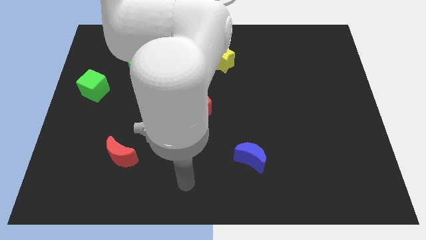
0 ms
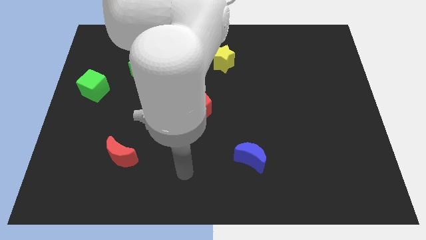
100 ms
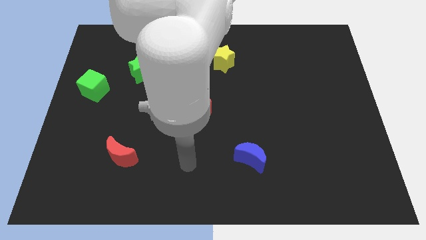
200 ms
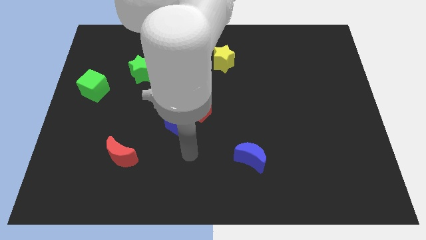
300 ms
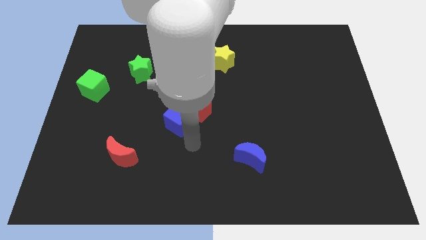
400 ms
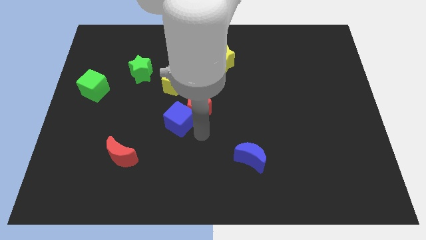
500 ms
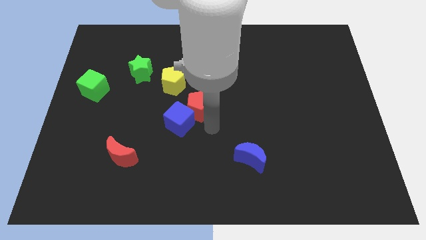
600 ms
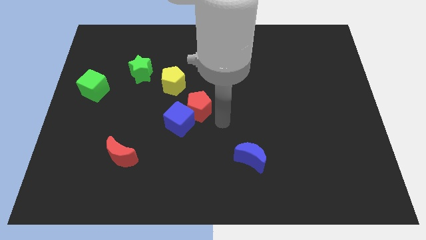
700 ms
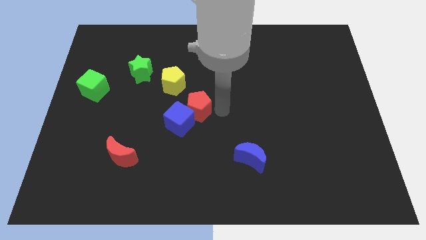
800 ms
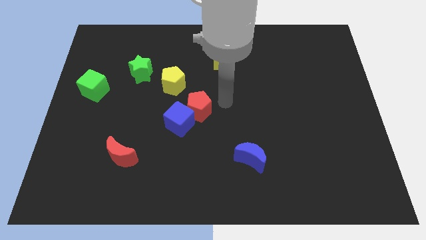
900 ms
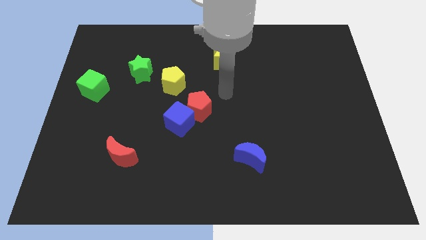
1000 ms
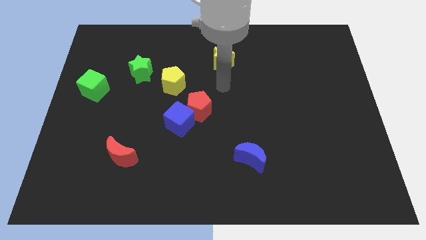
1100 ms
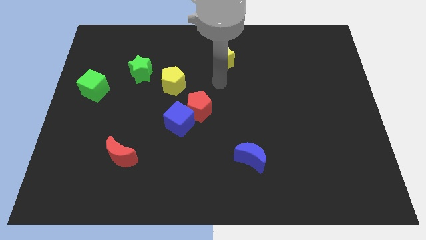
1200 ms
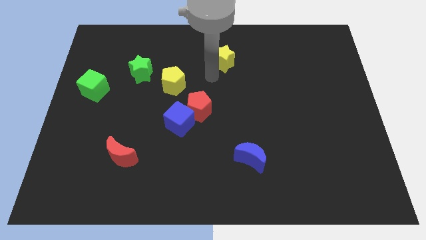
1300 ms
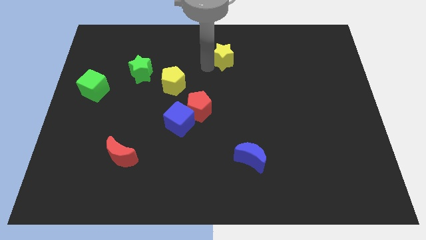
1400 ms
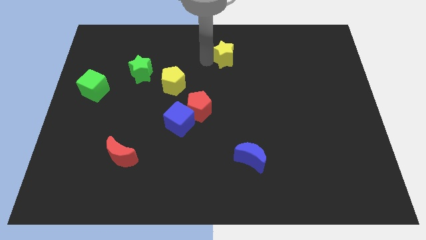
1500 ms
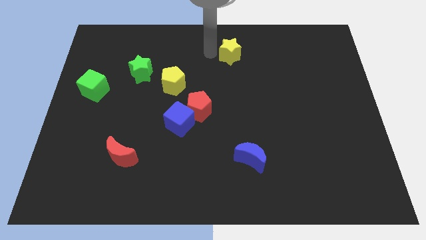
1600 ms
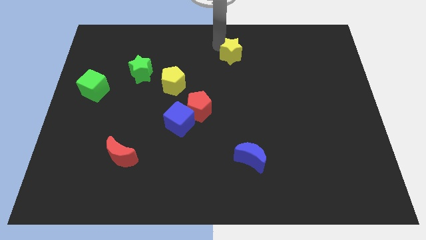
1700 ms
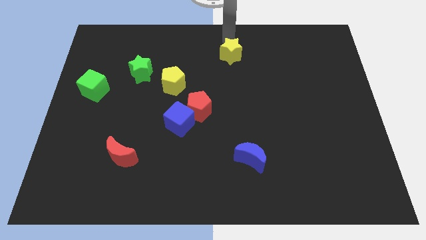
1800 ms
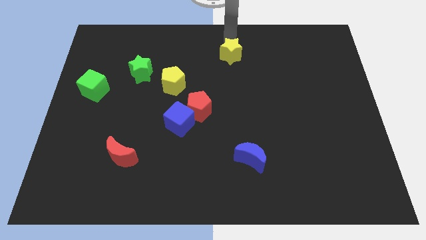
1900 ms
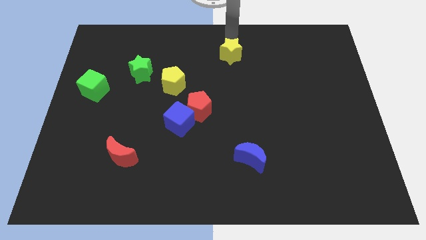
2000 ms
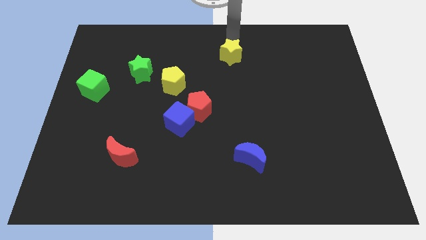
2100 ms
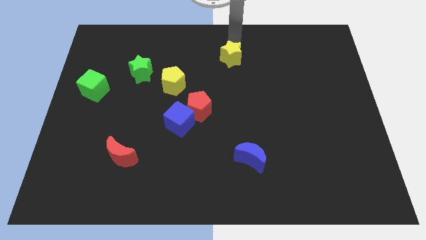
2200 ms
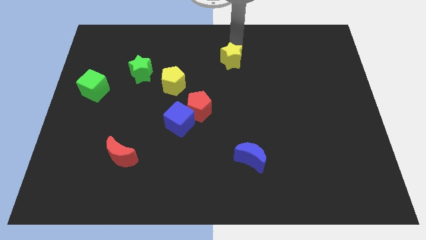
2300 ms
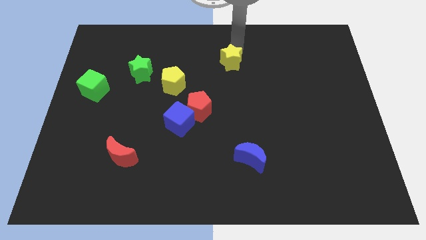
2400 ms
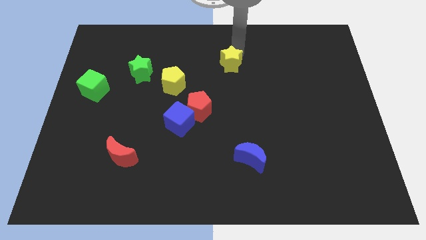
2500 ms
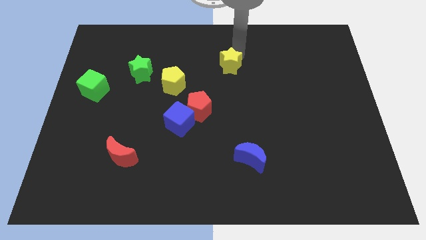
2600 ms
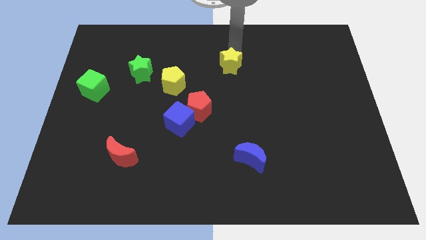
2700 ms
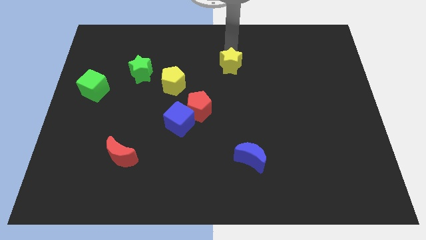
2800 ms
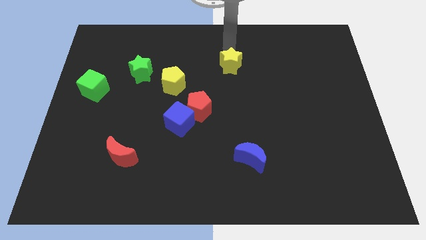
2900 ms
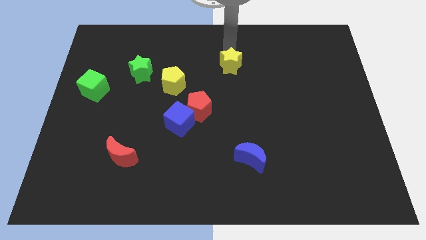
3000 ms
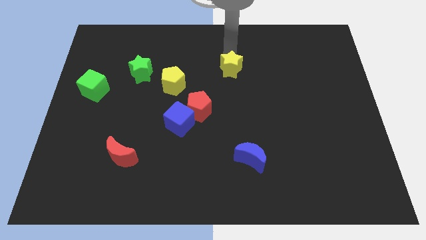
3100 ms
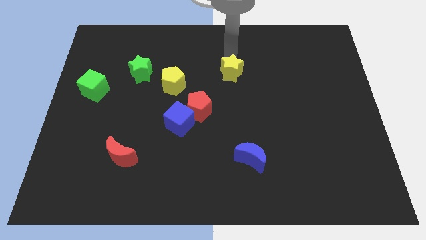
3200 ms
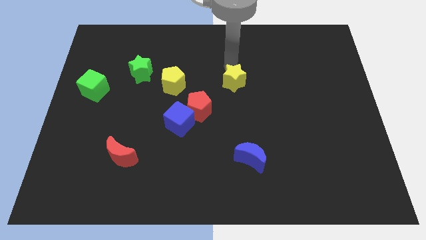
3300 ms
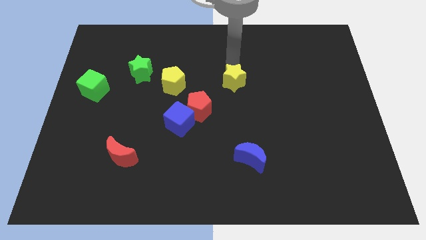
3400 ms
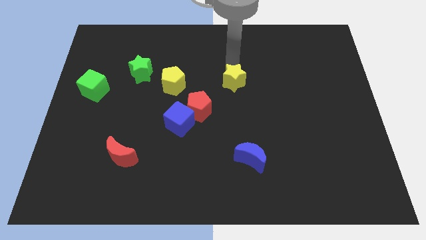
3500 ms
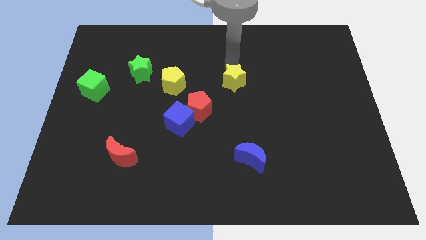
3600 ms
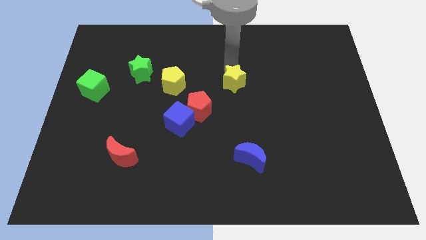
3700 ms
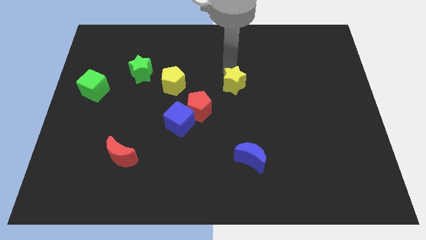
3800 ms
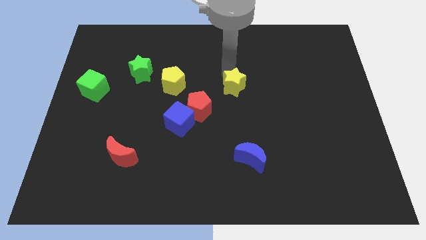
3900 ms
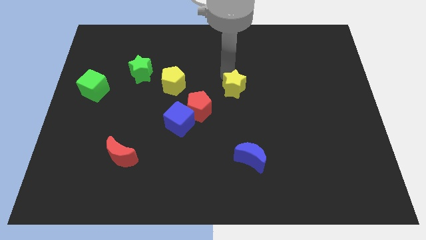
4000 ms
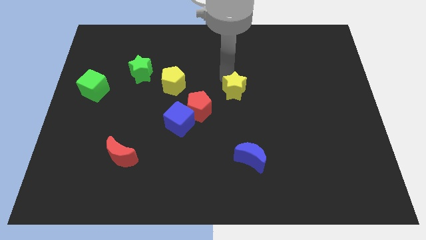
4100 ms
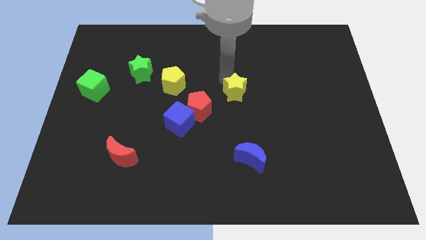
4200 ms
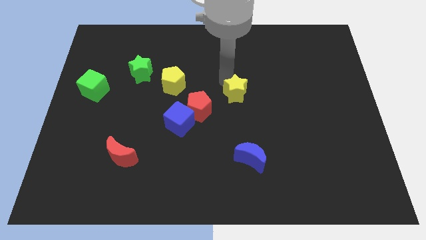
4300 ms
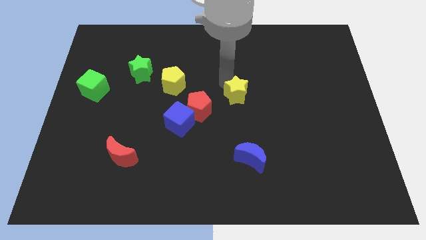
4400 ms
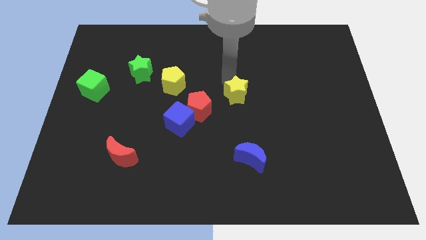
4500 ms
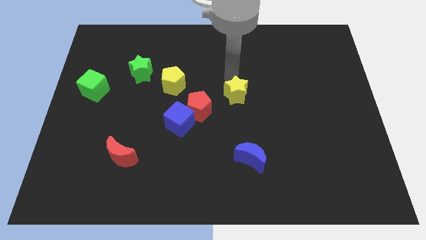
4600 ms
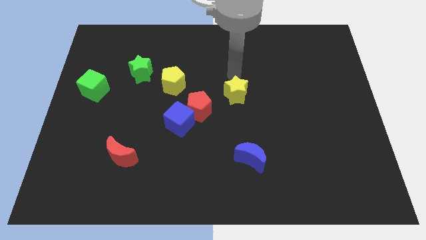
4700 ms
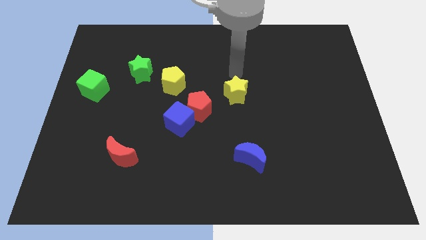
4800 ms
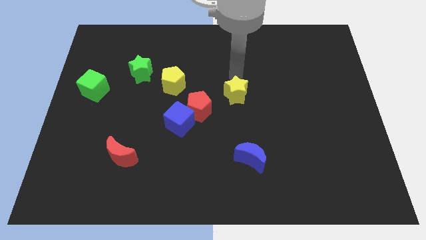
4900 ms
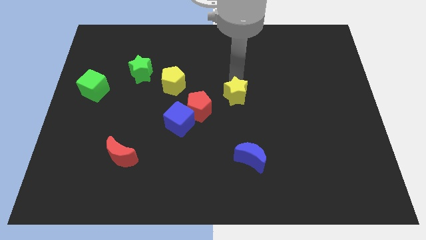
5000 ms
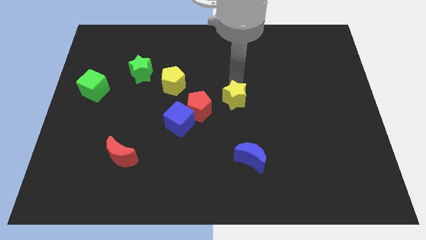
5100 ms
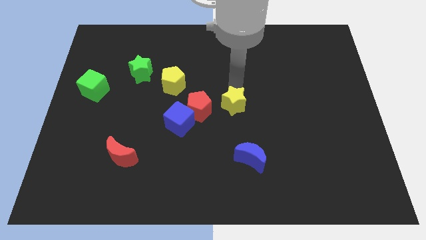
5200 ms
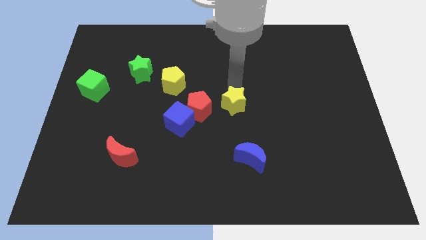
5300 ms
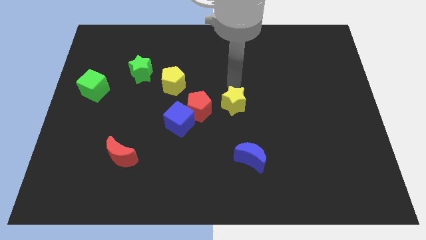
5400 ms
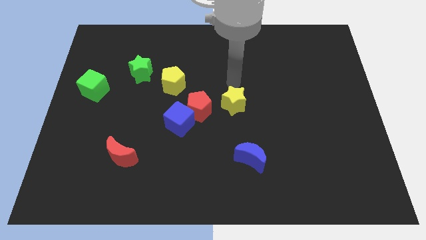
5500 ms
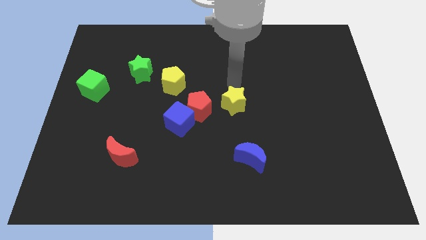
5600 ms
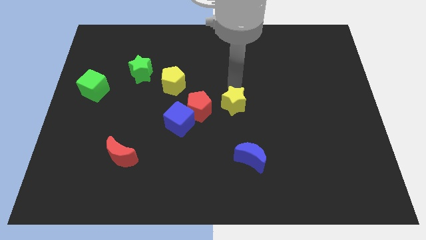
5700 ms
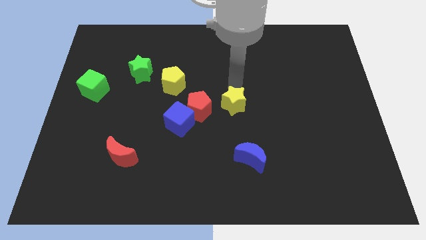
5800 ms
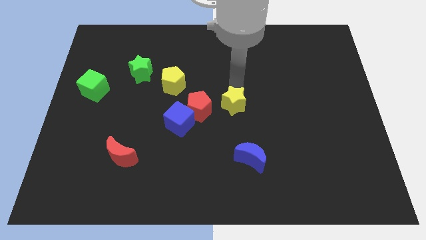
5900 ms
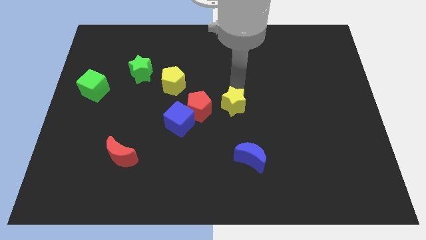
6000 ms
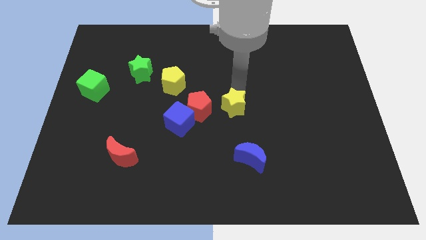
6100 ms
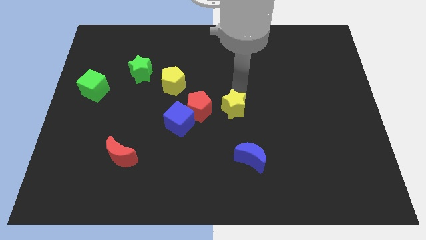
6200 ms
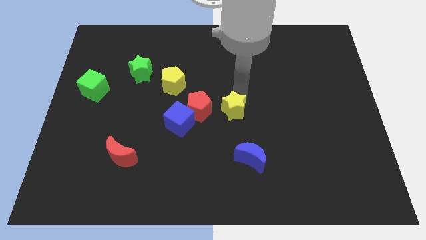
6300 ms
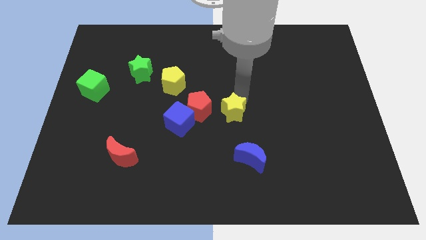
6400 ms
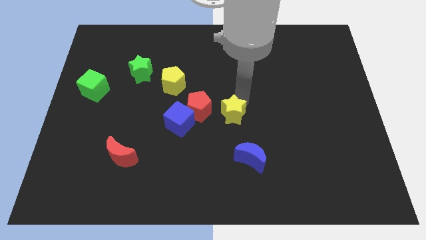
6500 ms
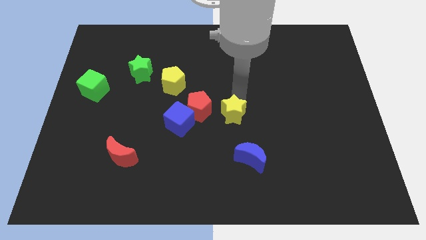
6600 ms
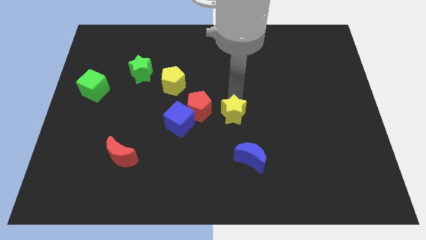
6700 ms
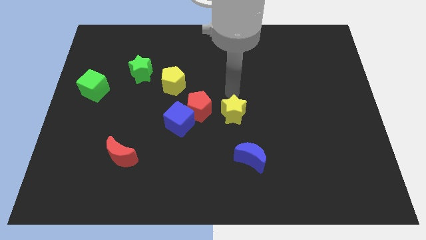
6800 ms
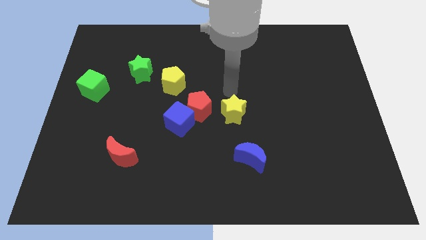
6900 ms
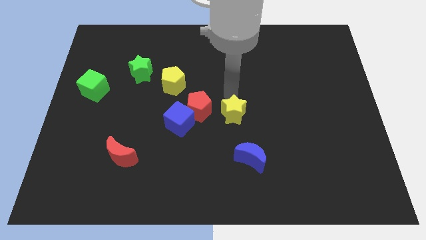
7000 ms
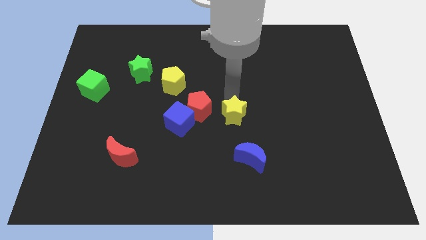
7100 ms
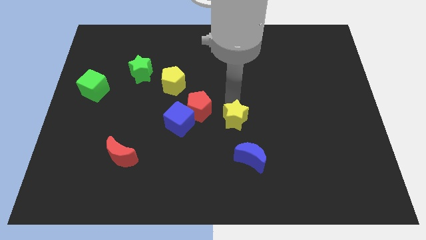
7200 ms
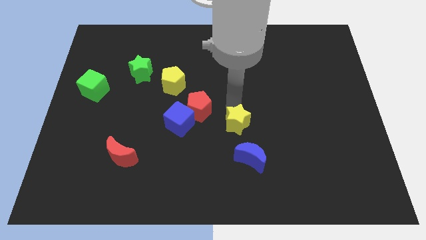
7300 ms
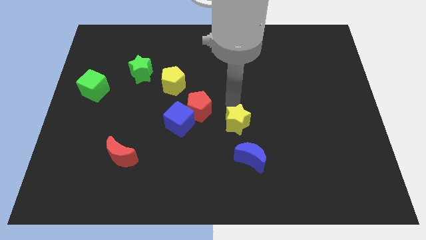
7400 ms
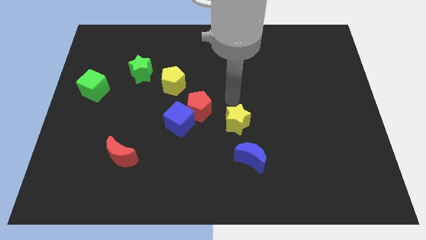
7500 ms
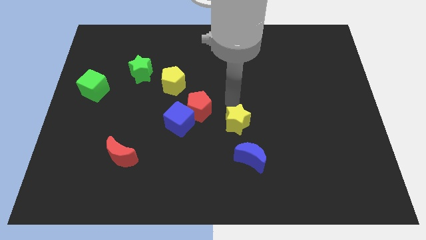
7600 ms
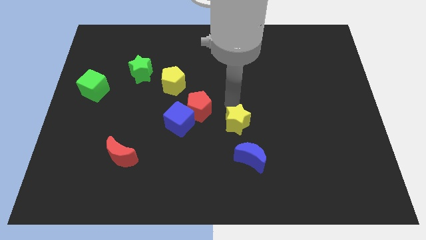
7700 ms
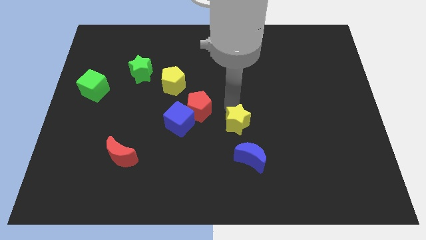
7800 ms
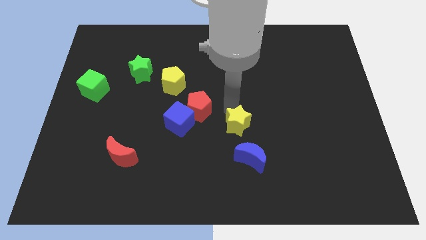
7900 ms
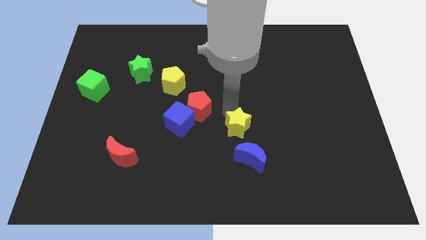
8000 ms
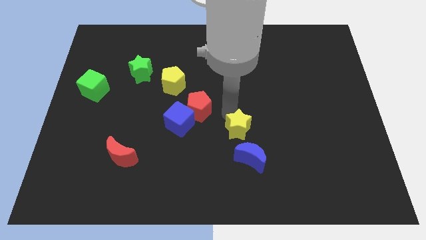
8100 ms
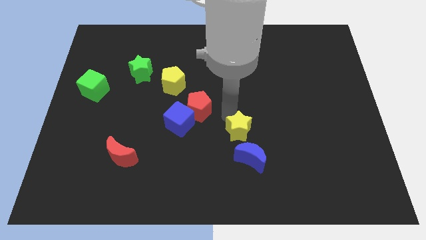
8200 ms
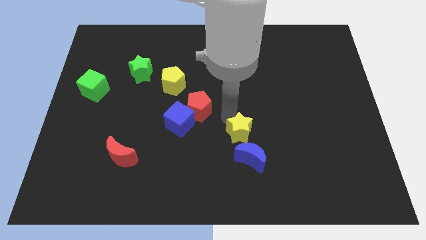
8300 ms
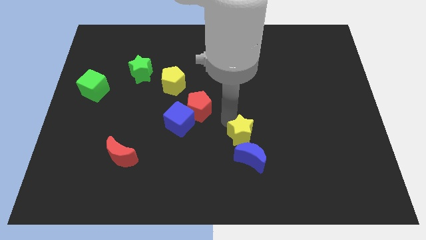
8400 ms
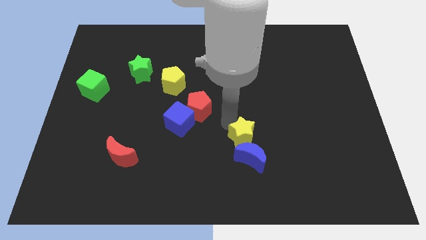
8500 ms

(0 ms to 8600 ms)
move the yellow star to the blue moon
